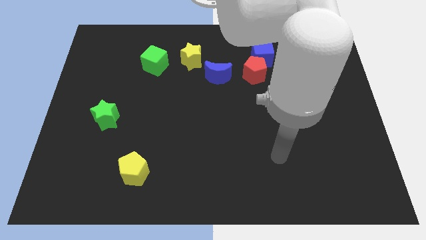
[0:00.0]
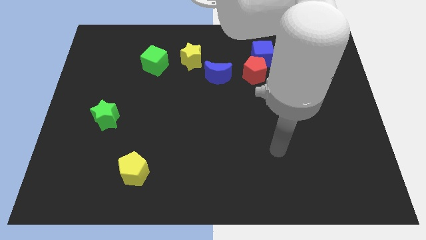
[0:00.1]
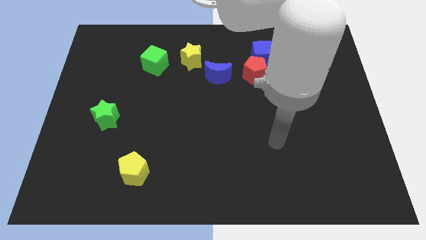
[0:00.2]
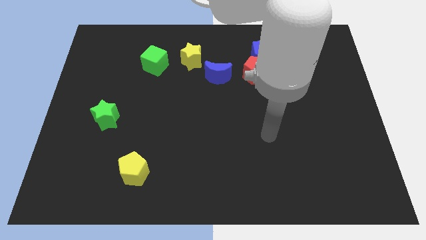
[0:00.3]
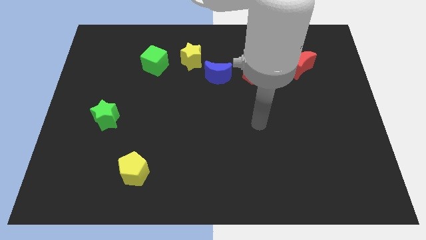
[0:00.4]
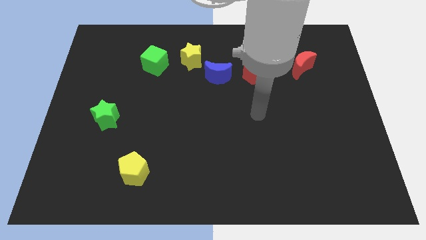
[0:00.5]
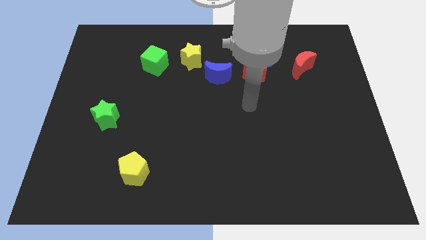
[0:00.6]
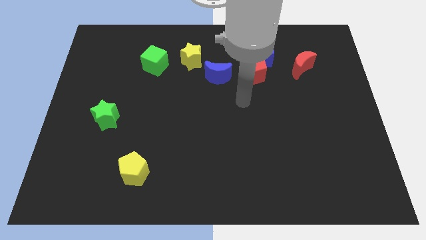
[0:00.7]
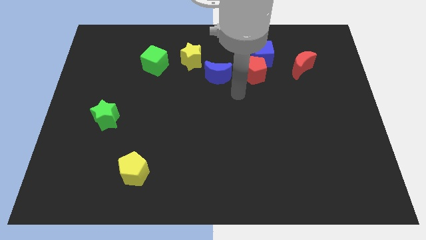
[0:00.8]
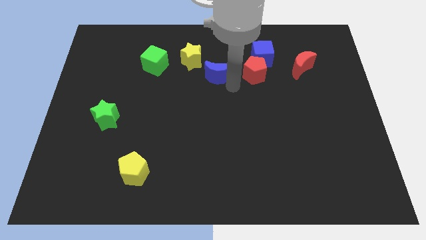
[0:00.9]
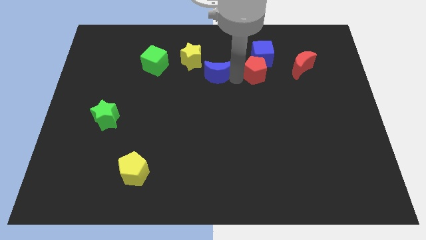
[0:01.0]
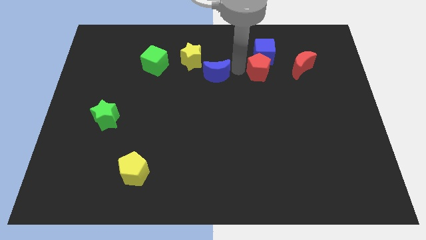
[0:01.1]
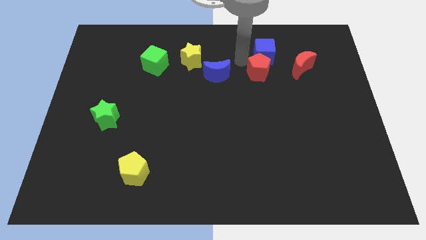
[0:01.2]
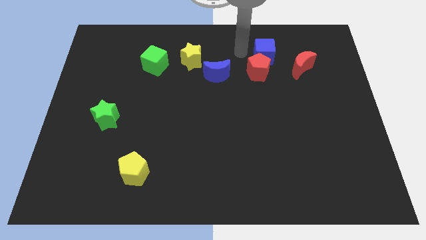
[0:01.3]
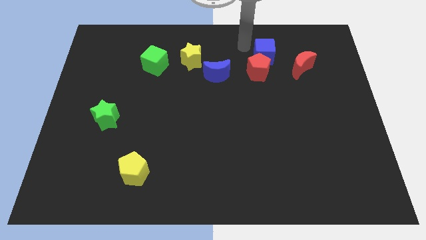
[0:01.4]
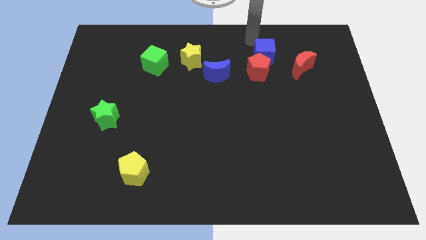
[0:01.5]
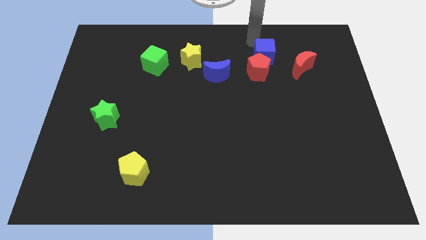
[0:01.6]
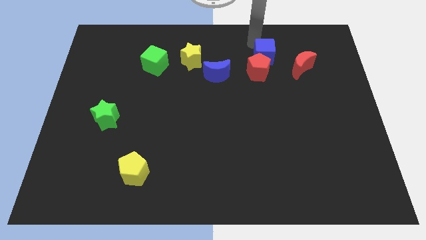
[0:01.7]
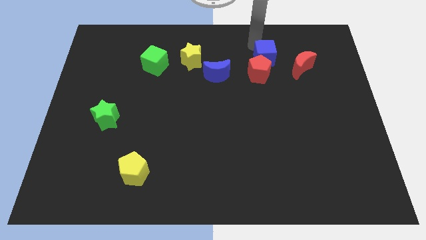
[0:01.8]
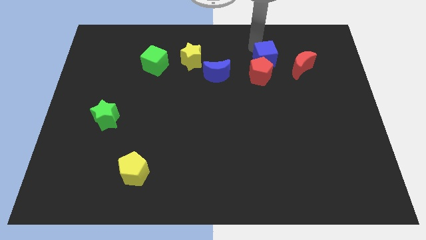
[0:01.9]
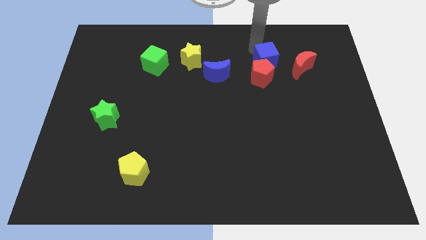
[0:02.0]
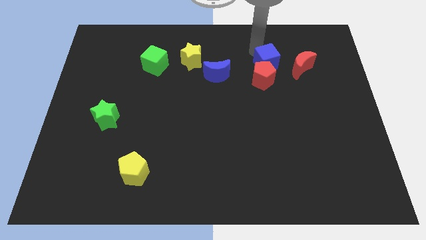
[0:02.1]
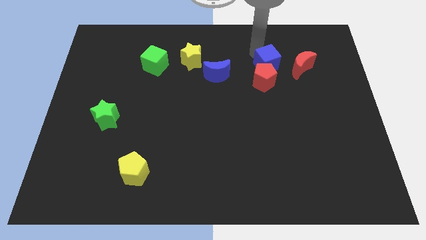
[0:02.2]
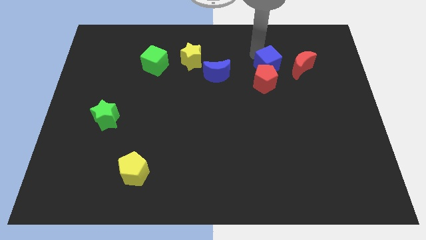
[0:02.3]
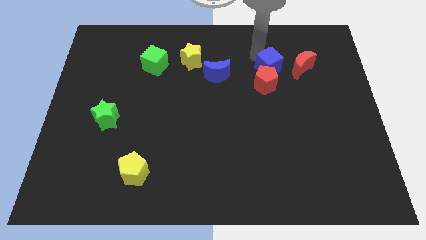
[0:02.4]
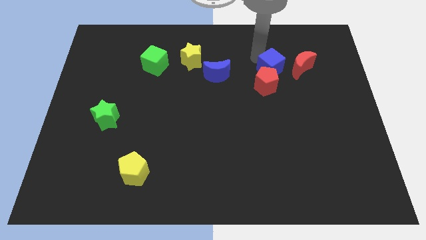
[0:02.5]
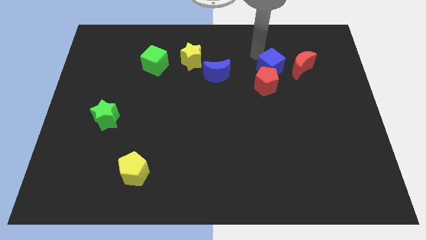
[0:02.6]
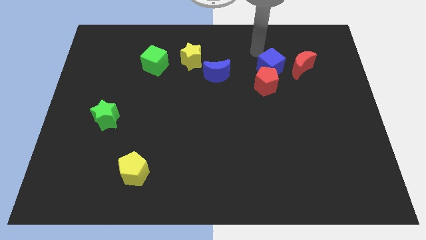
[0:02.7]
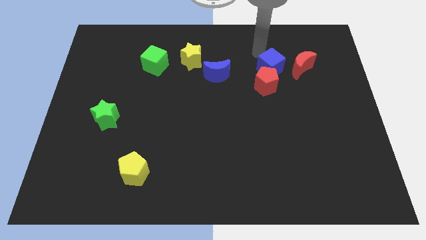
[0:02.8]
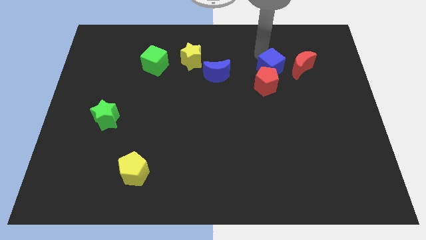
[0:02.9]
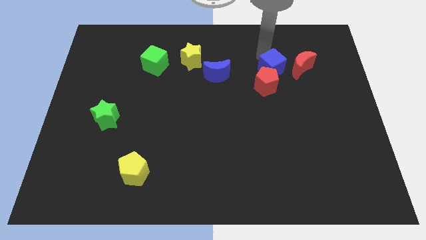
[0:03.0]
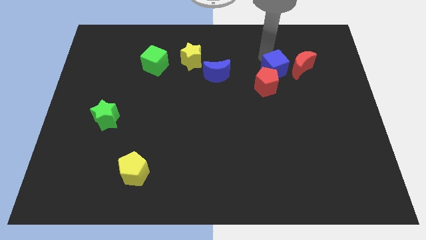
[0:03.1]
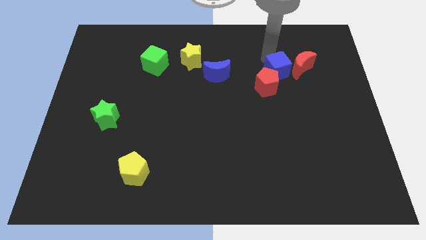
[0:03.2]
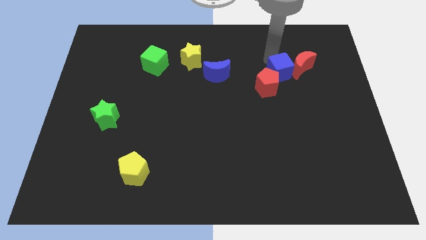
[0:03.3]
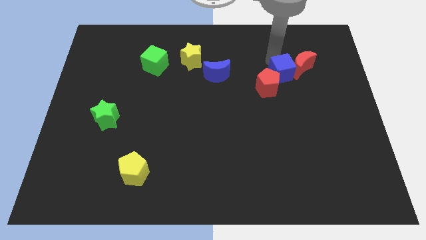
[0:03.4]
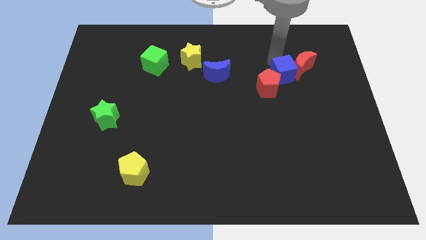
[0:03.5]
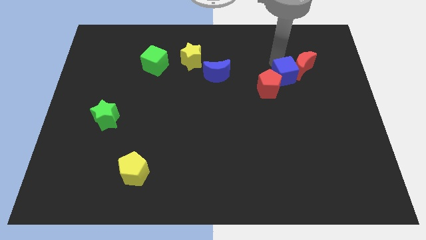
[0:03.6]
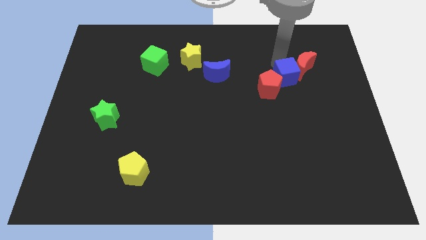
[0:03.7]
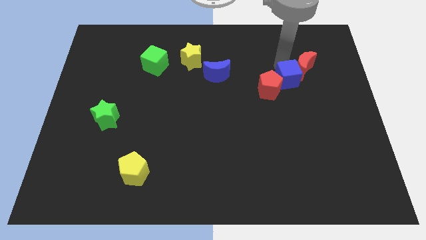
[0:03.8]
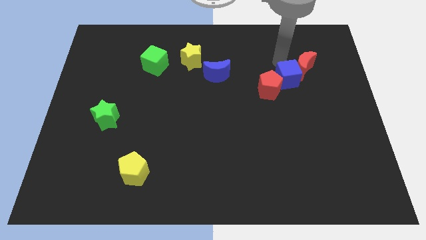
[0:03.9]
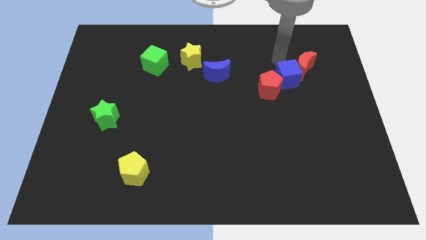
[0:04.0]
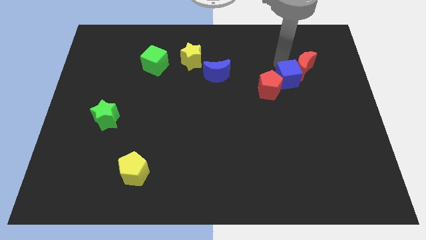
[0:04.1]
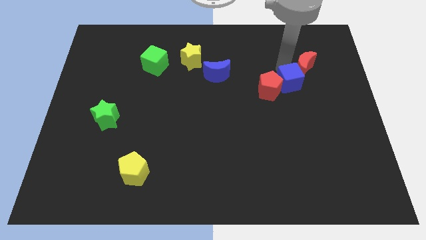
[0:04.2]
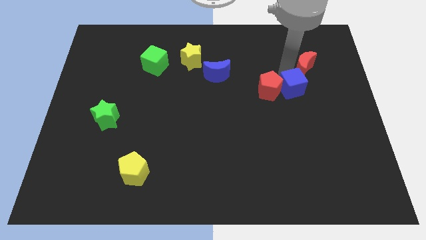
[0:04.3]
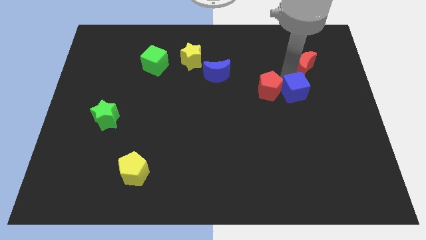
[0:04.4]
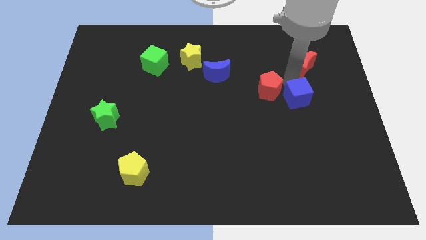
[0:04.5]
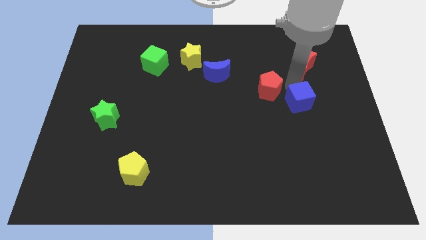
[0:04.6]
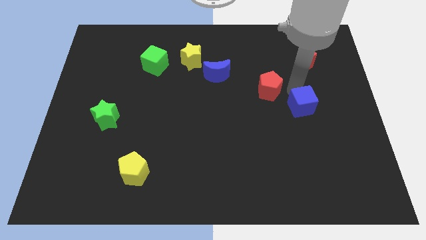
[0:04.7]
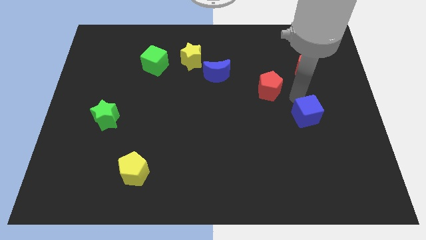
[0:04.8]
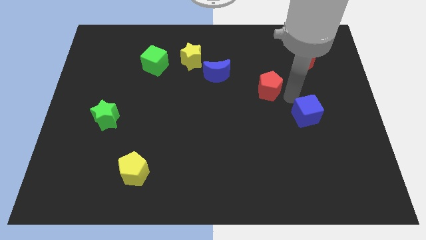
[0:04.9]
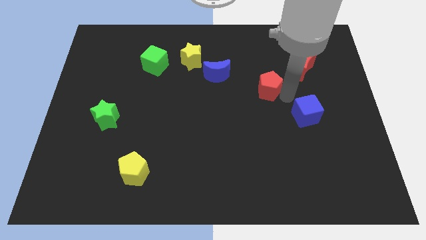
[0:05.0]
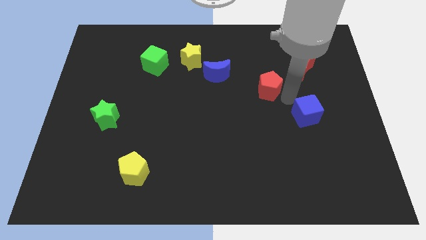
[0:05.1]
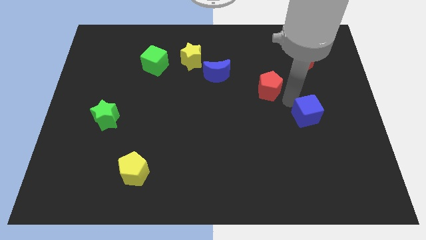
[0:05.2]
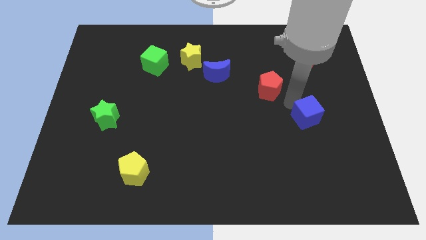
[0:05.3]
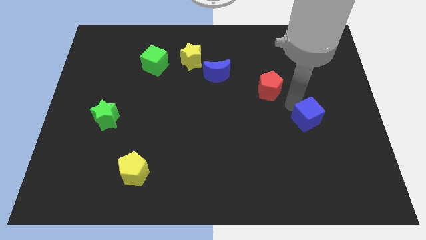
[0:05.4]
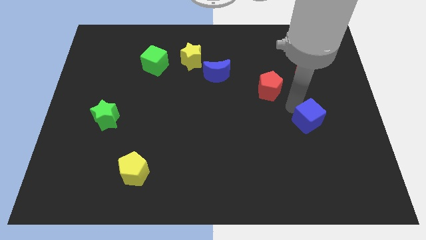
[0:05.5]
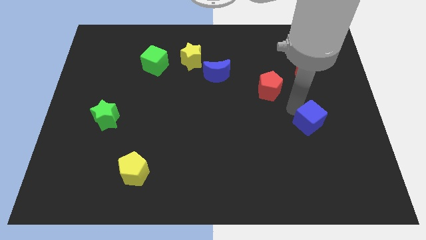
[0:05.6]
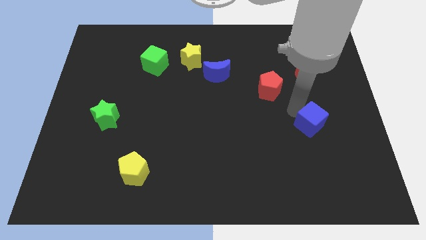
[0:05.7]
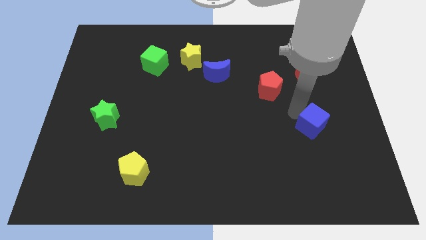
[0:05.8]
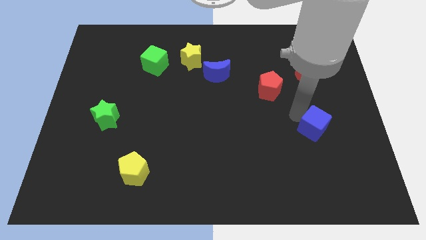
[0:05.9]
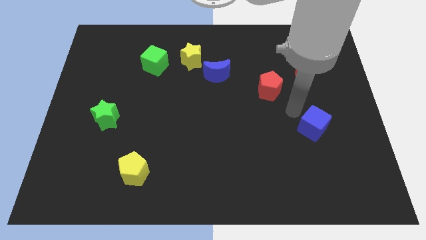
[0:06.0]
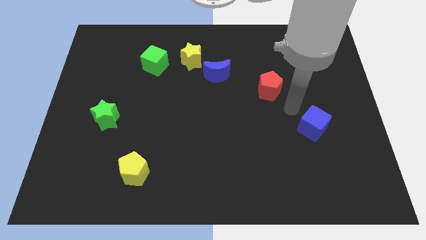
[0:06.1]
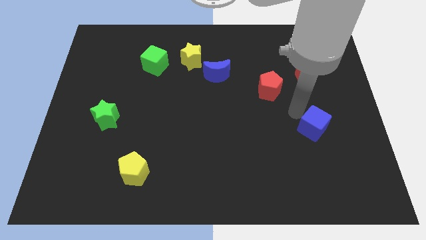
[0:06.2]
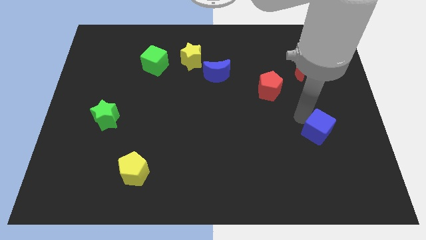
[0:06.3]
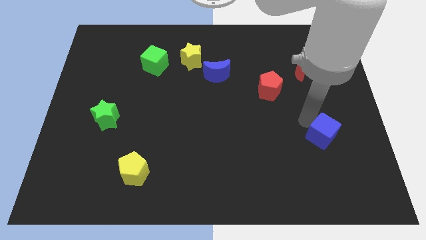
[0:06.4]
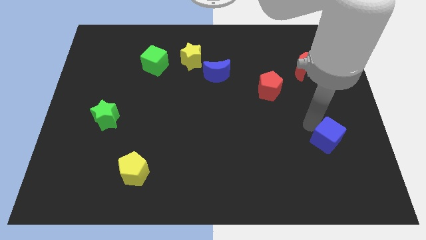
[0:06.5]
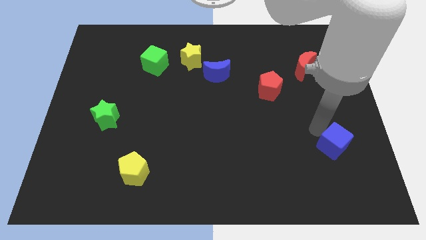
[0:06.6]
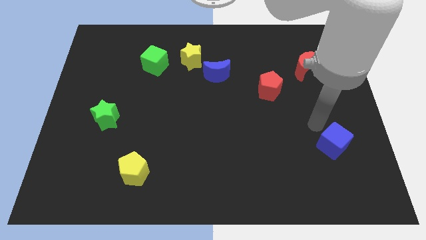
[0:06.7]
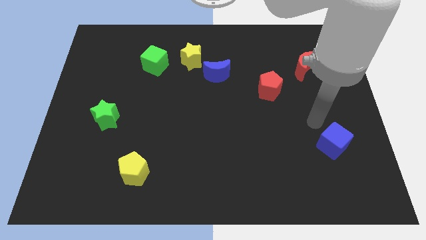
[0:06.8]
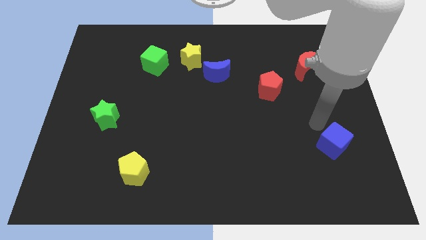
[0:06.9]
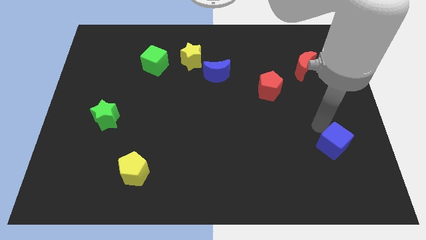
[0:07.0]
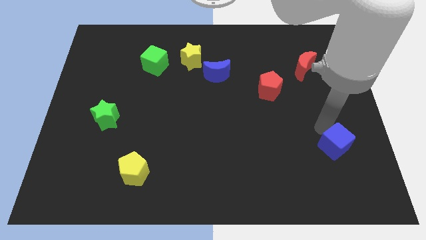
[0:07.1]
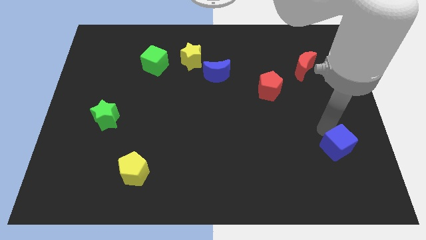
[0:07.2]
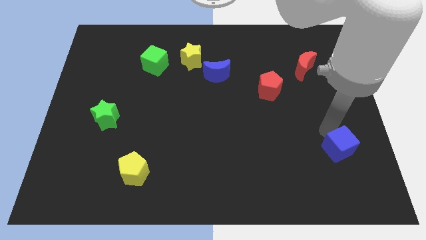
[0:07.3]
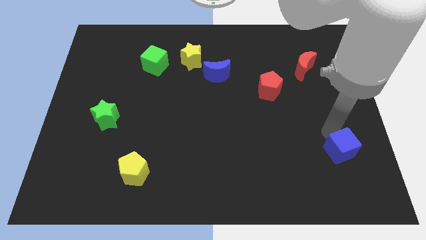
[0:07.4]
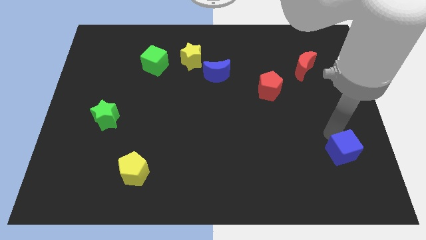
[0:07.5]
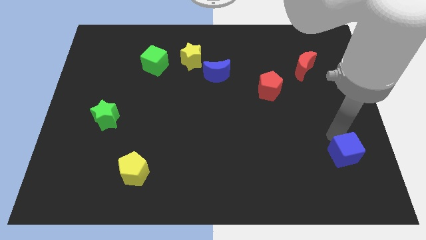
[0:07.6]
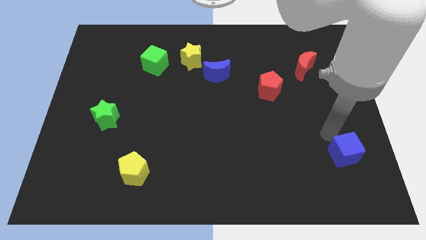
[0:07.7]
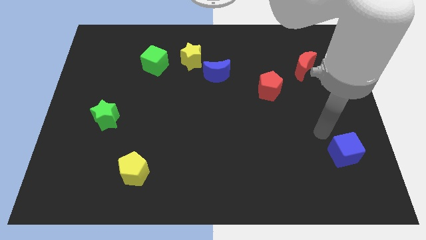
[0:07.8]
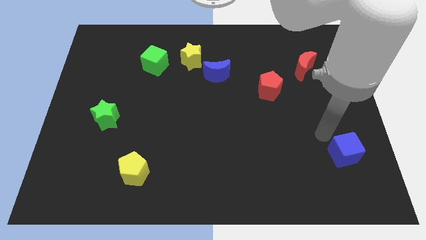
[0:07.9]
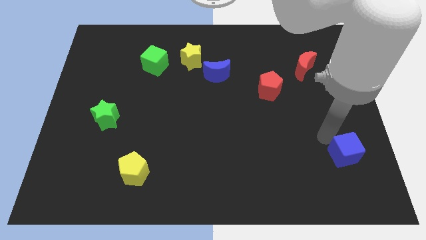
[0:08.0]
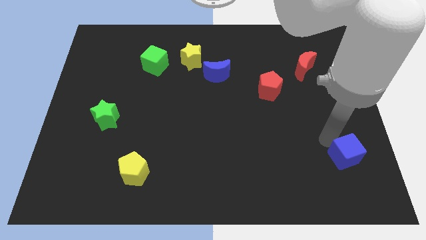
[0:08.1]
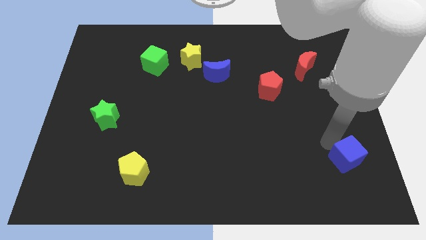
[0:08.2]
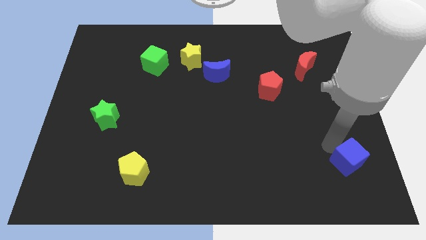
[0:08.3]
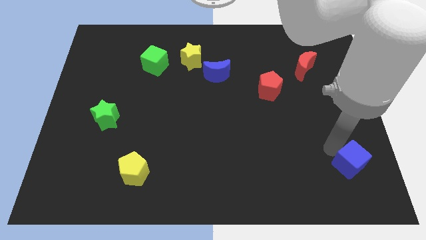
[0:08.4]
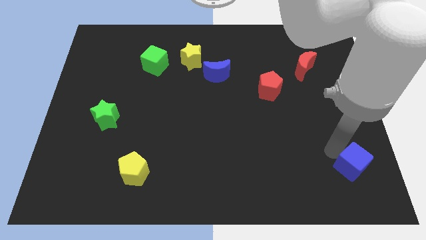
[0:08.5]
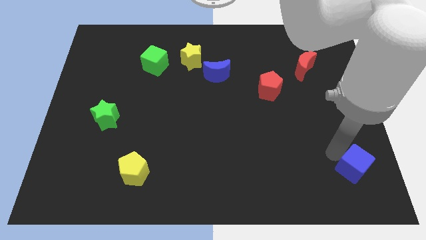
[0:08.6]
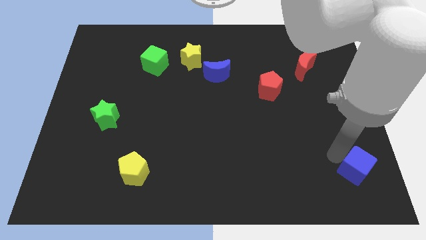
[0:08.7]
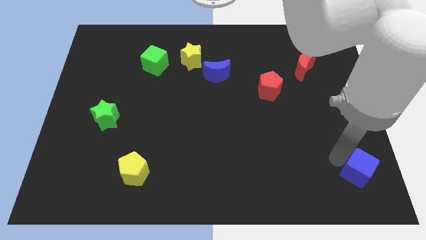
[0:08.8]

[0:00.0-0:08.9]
move the blue cube to the bottom right corner
